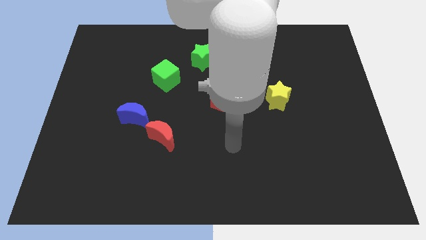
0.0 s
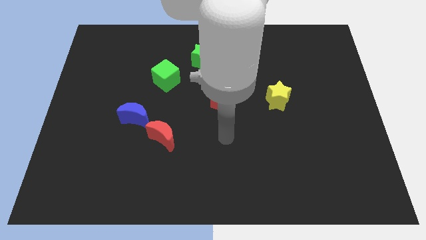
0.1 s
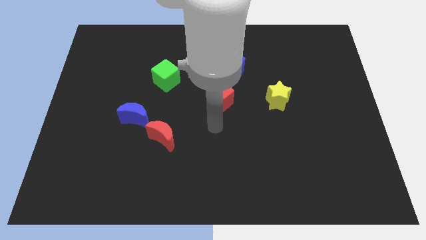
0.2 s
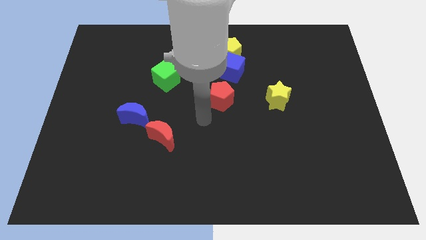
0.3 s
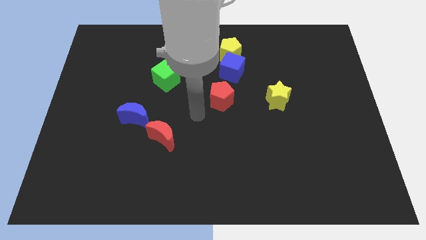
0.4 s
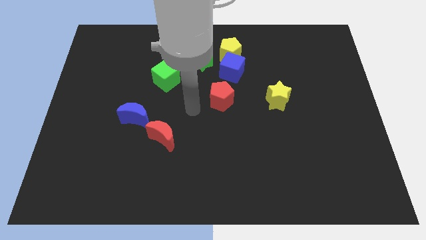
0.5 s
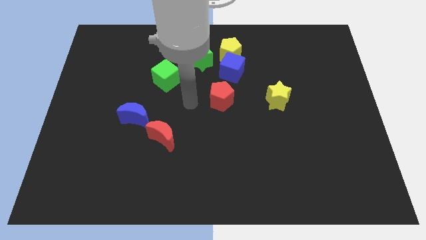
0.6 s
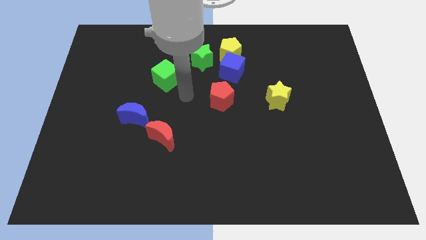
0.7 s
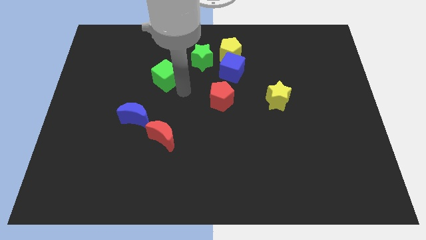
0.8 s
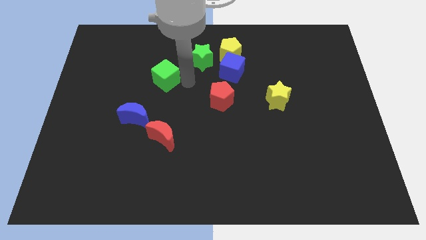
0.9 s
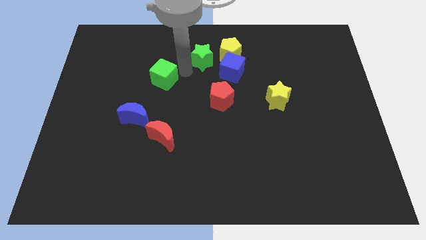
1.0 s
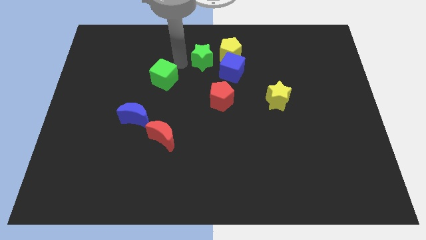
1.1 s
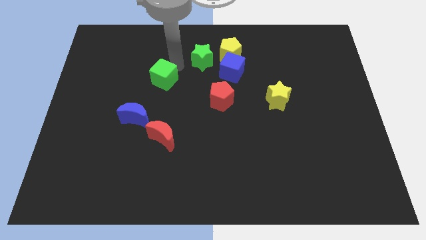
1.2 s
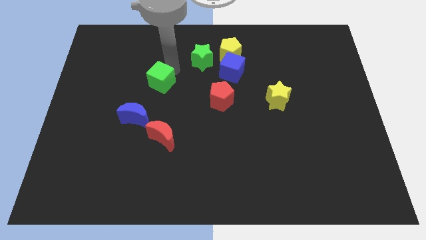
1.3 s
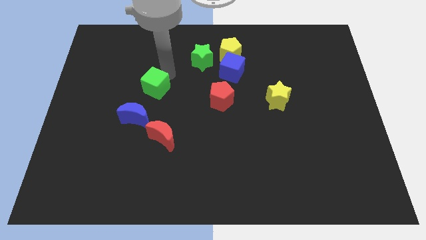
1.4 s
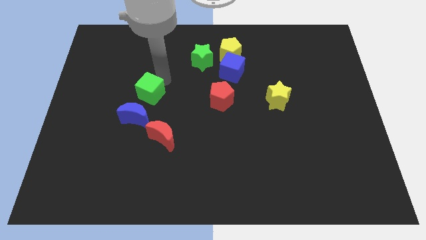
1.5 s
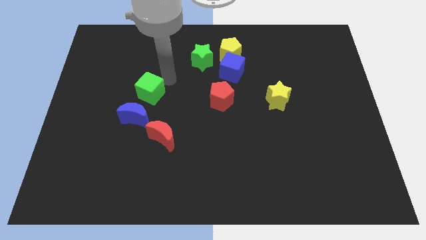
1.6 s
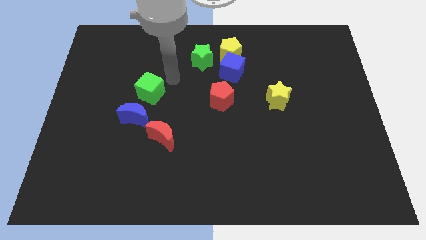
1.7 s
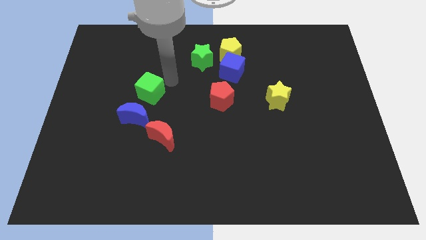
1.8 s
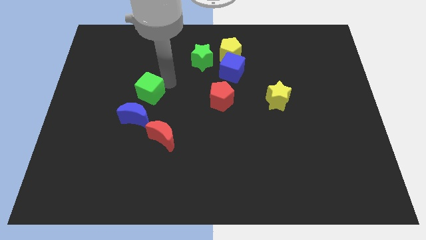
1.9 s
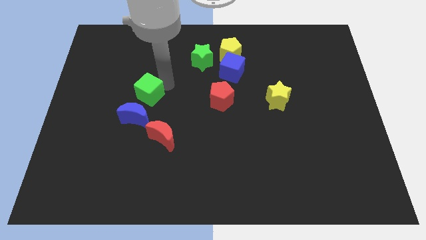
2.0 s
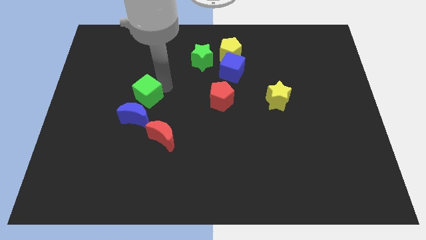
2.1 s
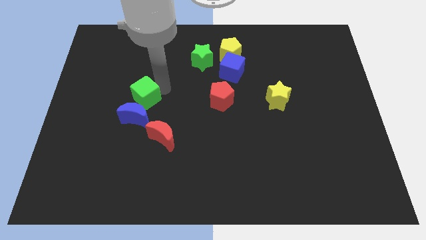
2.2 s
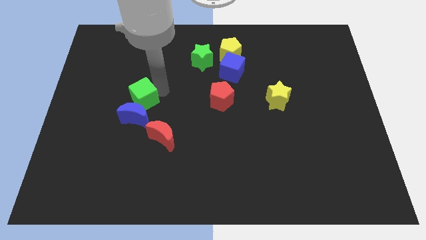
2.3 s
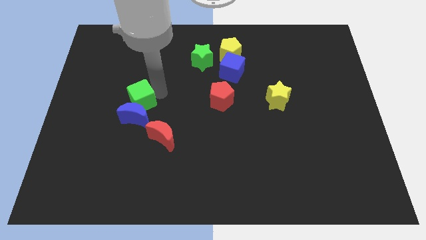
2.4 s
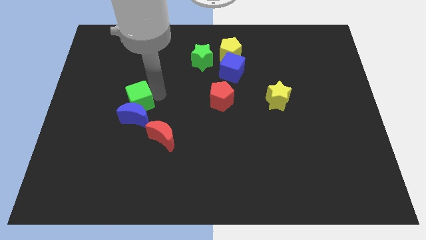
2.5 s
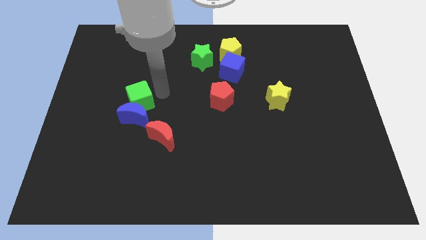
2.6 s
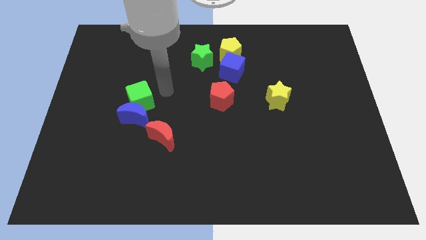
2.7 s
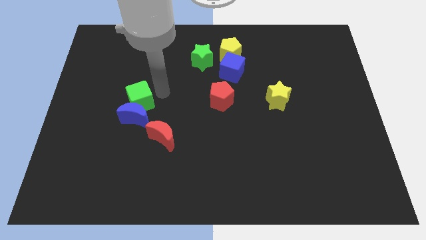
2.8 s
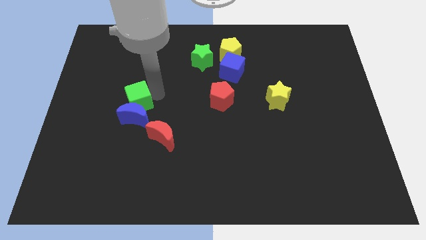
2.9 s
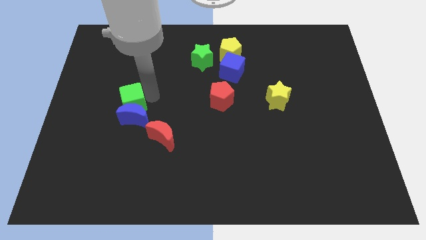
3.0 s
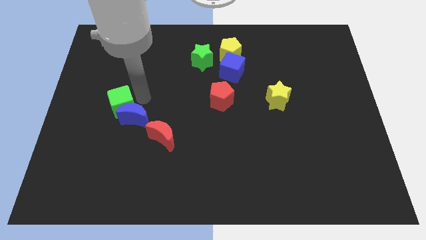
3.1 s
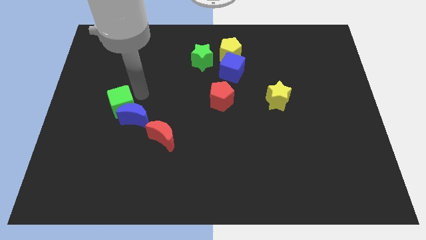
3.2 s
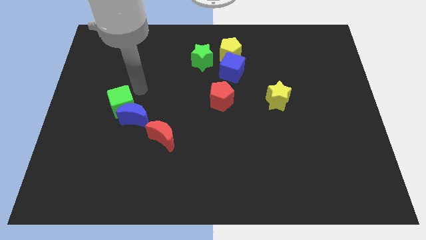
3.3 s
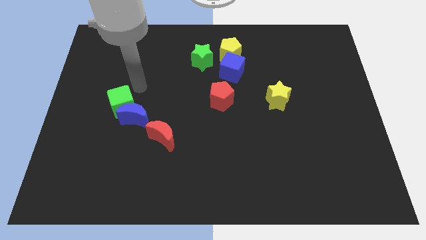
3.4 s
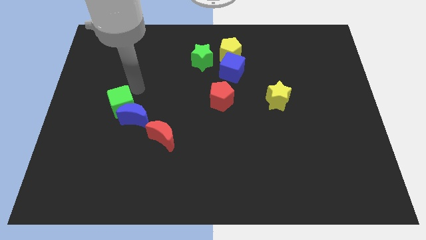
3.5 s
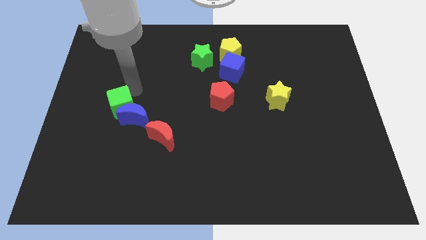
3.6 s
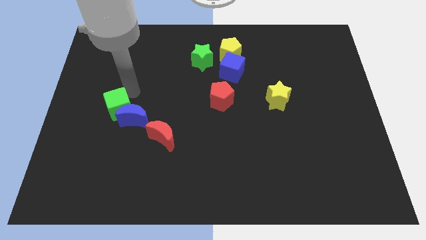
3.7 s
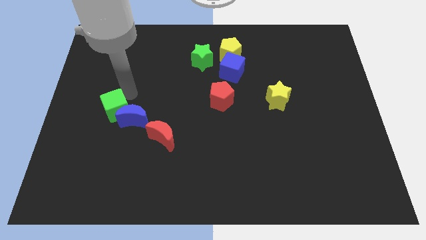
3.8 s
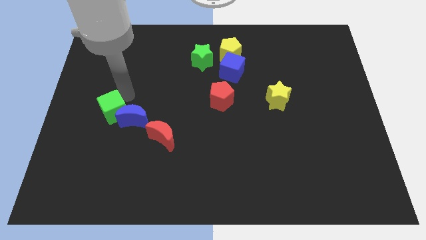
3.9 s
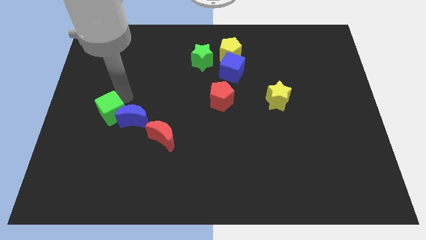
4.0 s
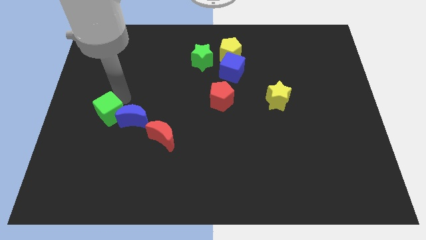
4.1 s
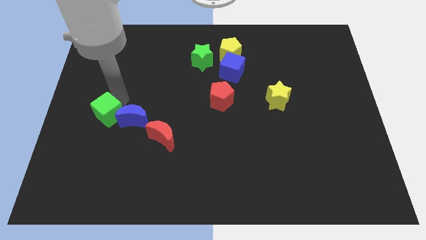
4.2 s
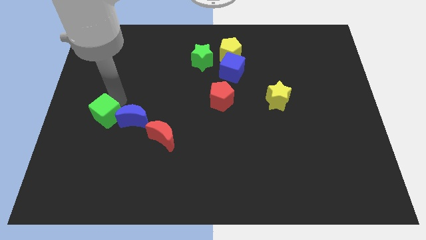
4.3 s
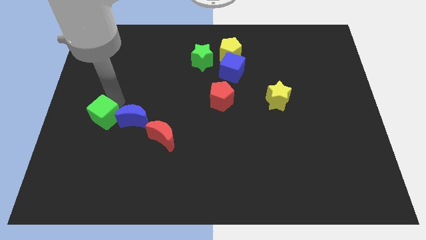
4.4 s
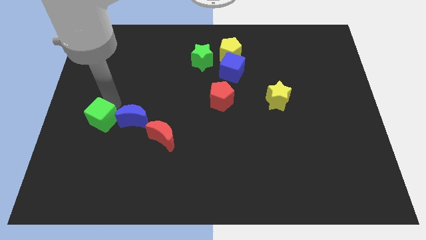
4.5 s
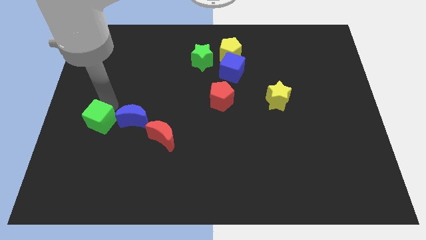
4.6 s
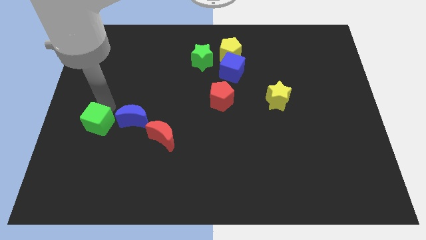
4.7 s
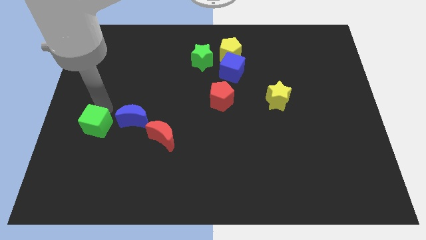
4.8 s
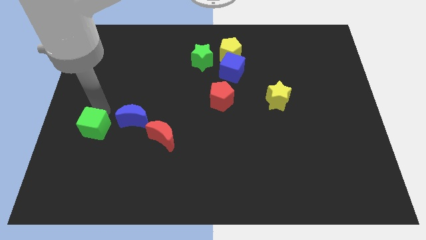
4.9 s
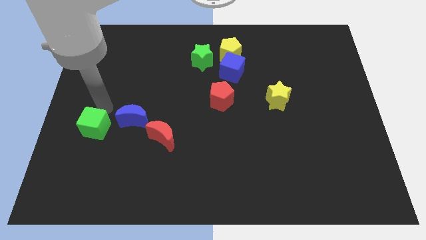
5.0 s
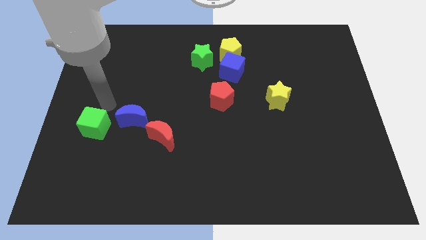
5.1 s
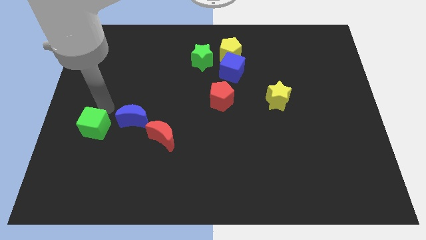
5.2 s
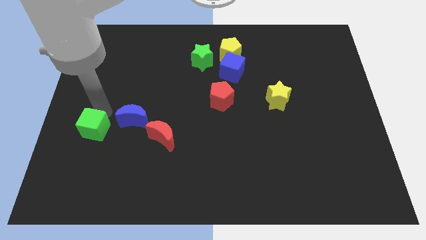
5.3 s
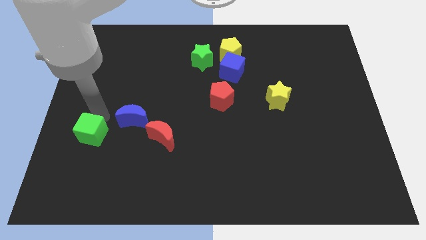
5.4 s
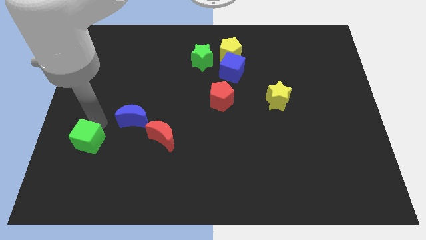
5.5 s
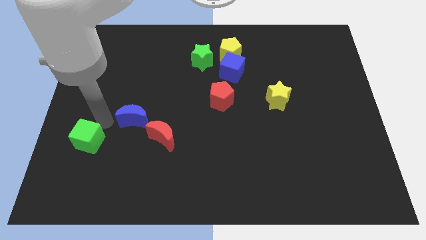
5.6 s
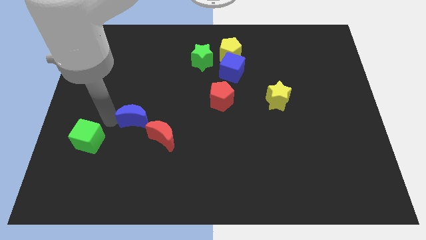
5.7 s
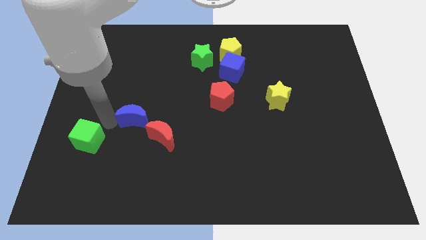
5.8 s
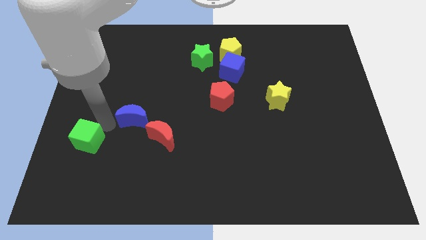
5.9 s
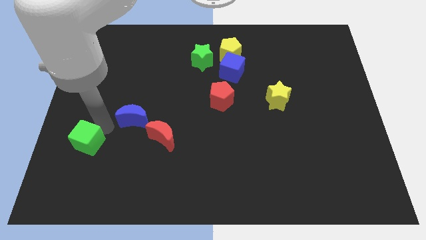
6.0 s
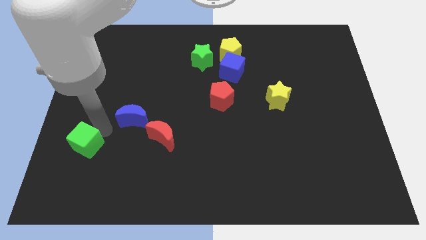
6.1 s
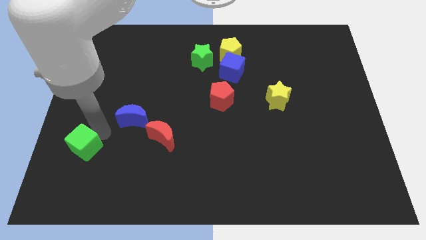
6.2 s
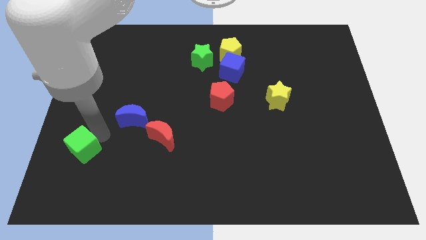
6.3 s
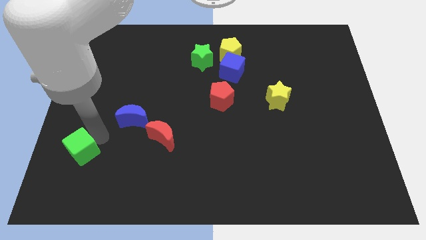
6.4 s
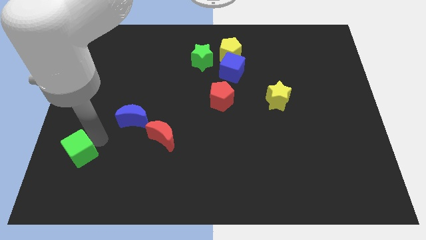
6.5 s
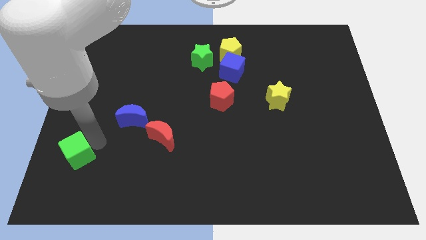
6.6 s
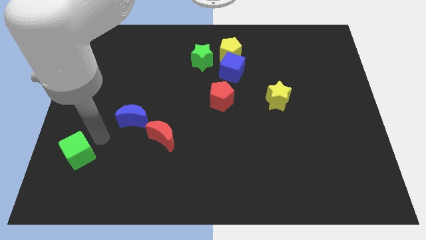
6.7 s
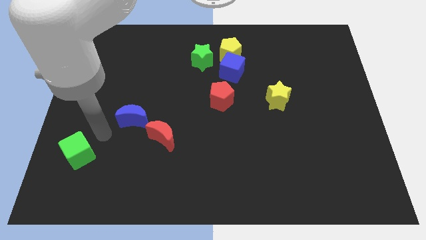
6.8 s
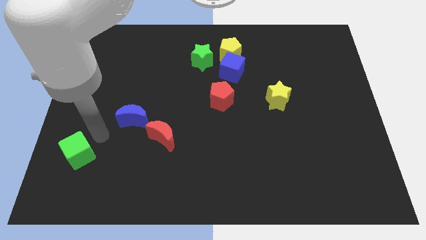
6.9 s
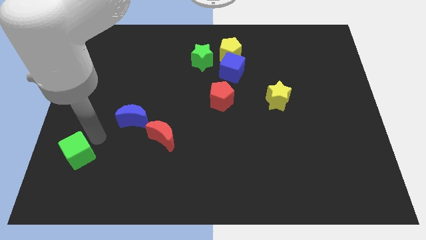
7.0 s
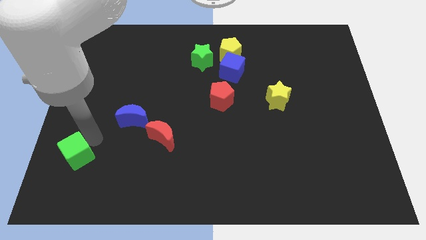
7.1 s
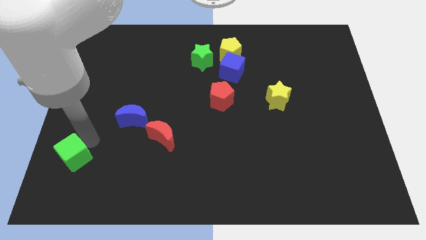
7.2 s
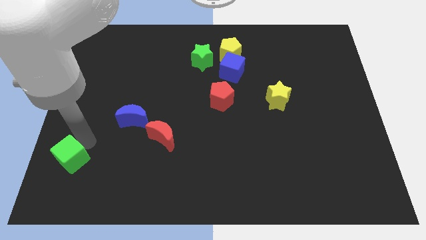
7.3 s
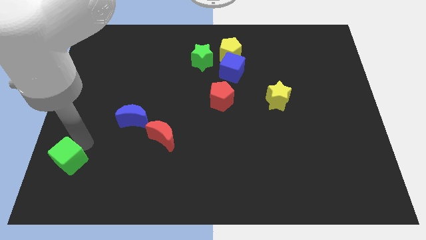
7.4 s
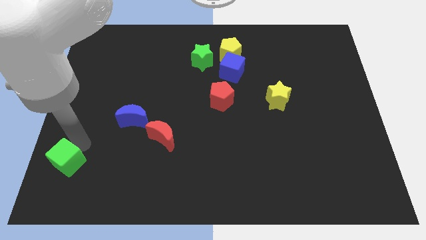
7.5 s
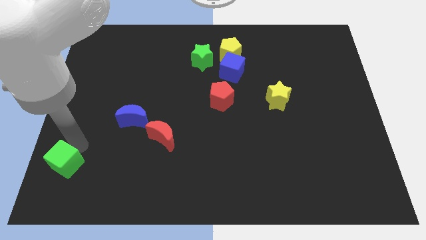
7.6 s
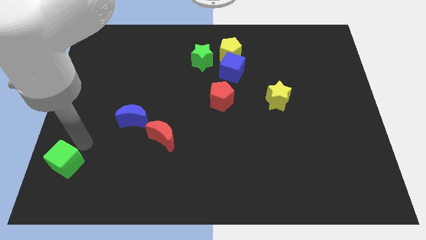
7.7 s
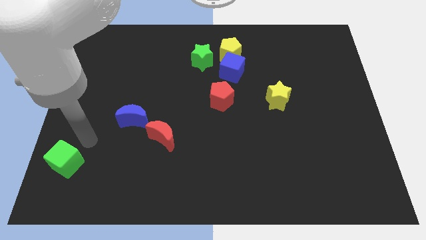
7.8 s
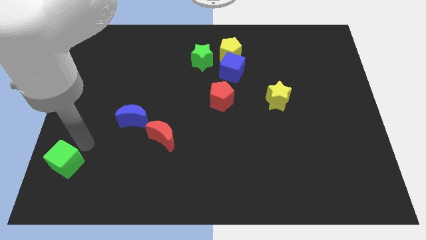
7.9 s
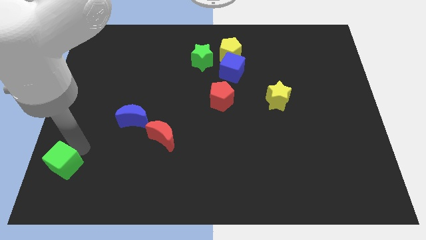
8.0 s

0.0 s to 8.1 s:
put the green cube to the bottom left of the board
